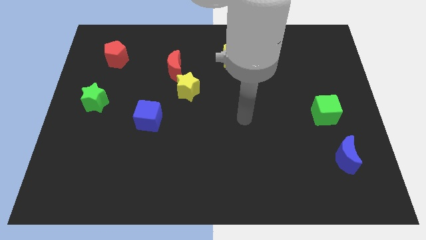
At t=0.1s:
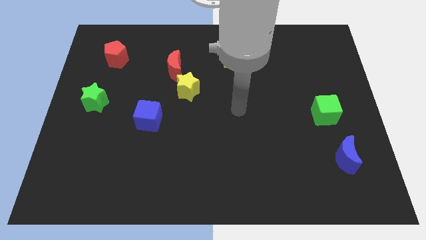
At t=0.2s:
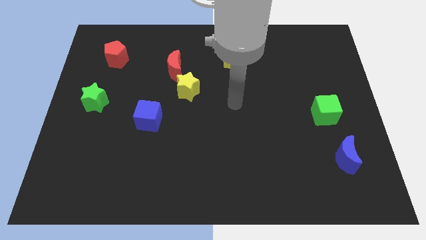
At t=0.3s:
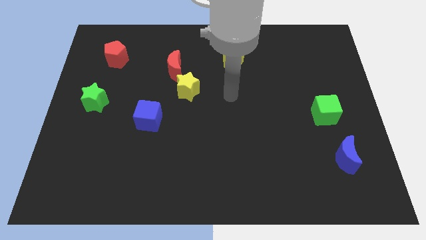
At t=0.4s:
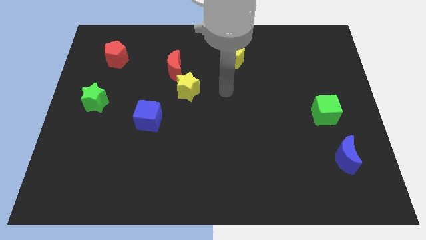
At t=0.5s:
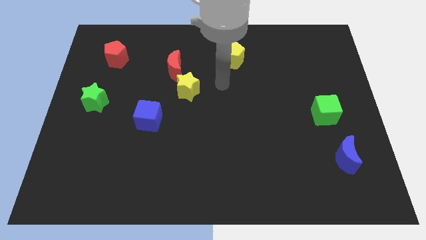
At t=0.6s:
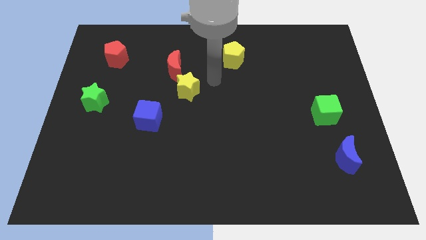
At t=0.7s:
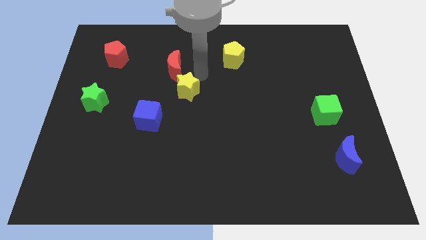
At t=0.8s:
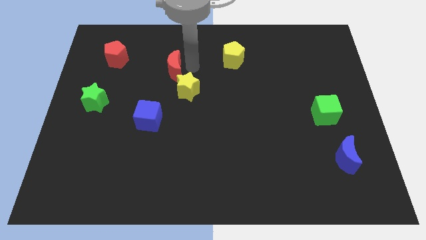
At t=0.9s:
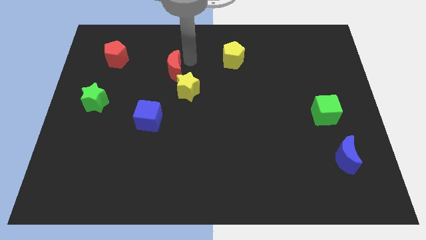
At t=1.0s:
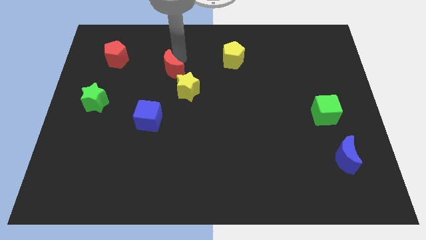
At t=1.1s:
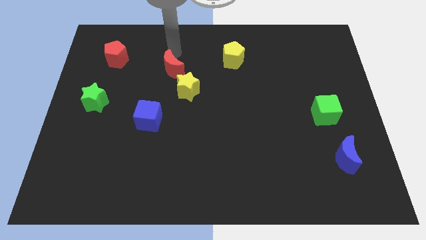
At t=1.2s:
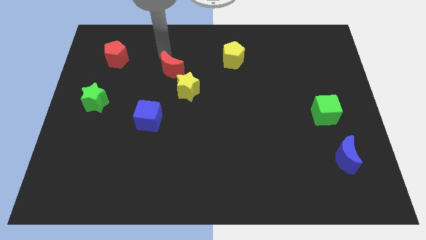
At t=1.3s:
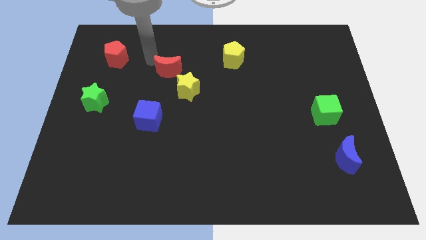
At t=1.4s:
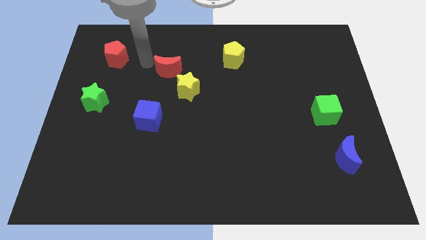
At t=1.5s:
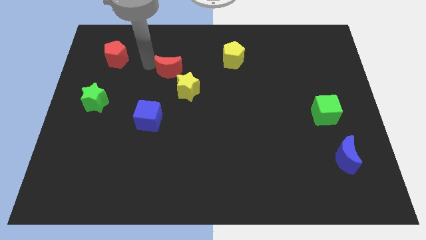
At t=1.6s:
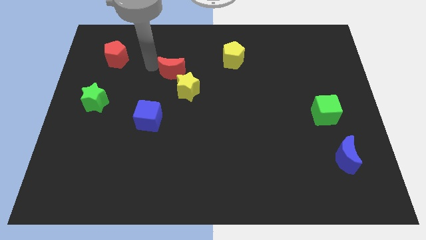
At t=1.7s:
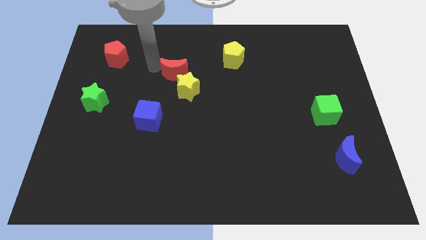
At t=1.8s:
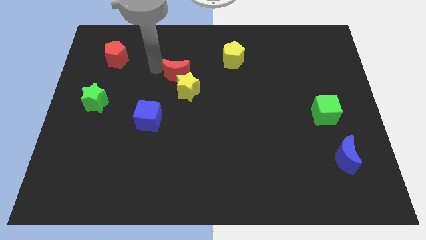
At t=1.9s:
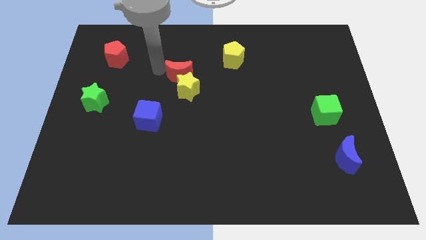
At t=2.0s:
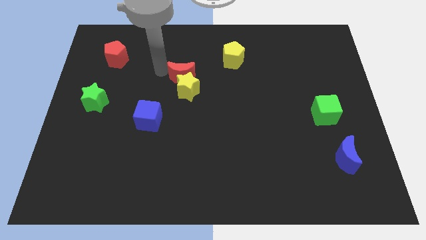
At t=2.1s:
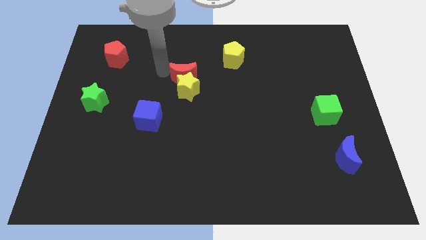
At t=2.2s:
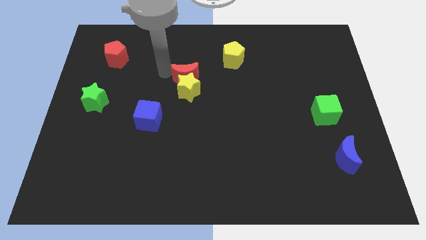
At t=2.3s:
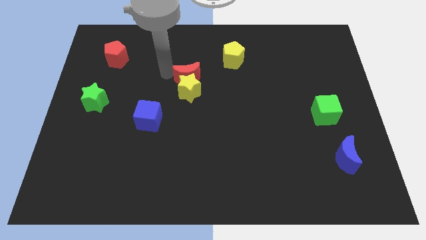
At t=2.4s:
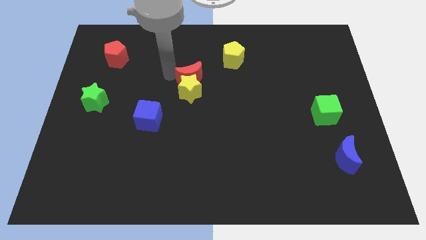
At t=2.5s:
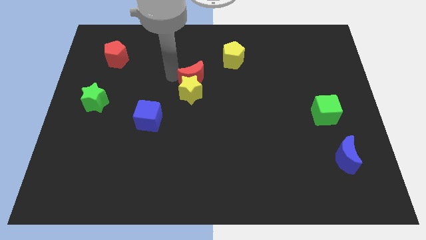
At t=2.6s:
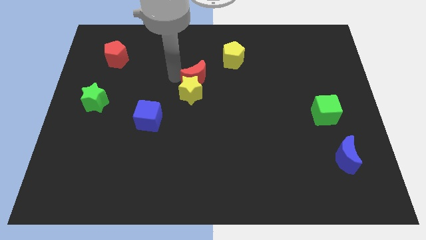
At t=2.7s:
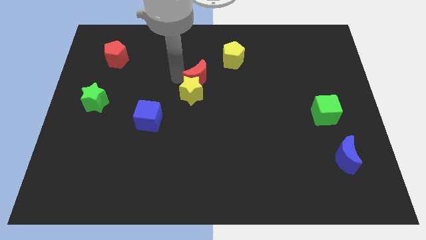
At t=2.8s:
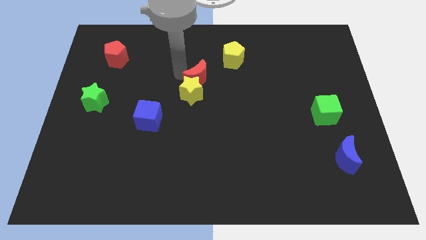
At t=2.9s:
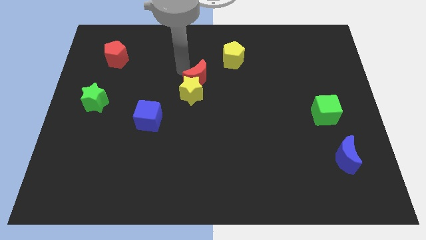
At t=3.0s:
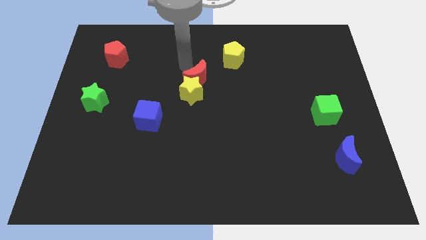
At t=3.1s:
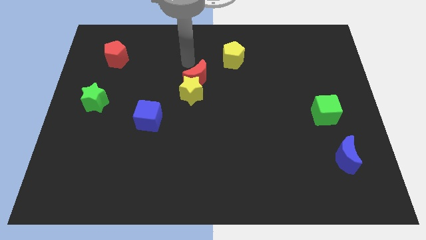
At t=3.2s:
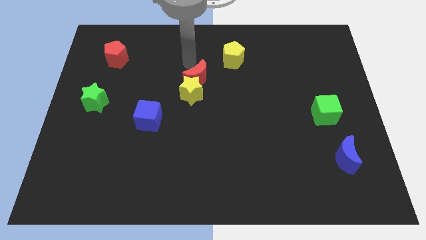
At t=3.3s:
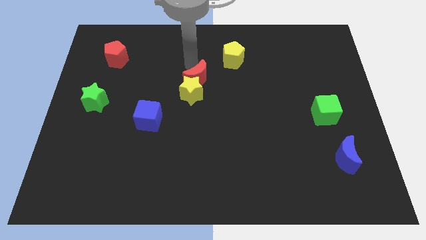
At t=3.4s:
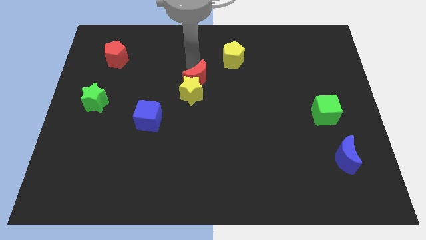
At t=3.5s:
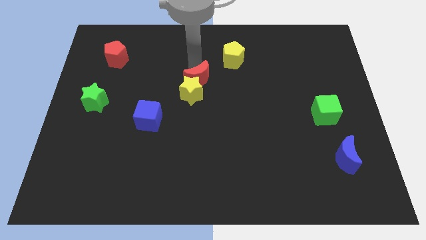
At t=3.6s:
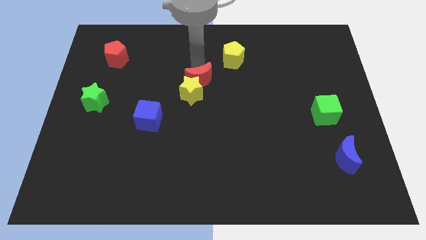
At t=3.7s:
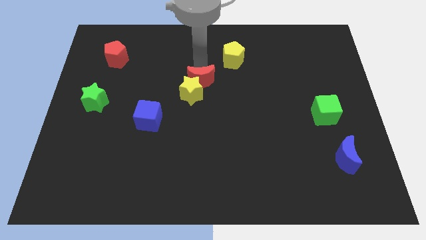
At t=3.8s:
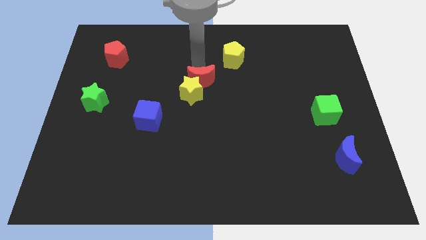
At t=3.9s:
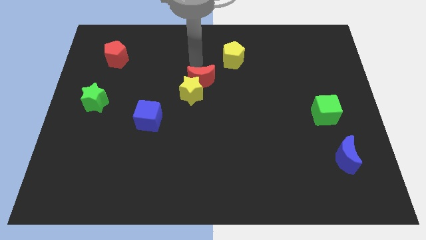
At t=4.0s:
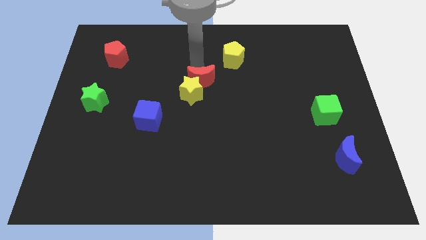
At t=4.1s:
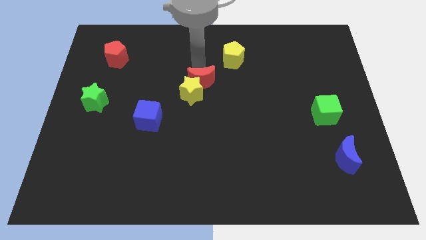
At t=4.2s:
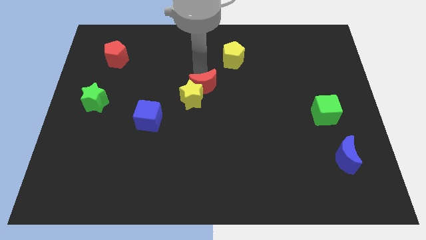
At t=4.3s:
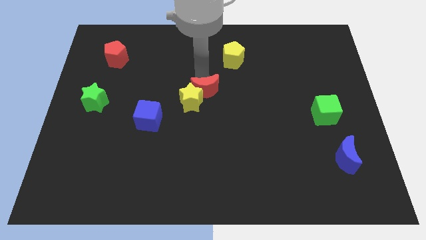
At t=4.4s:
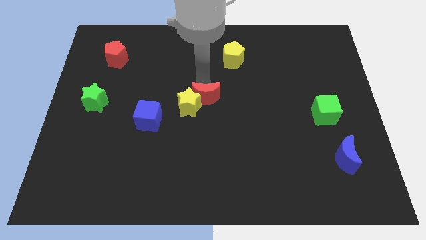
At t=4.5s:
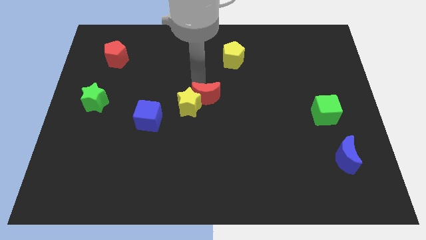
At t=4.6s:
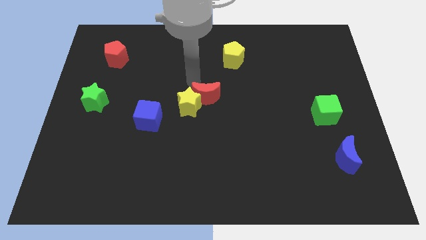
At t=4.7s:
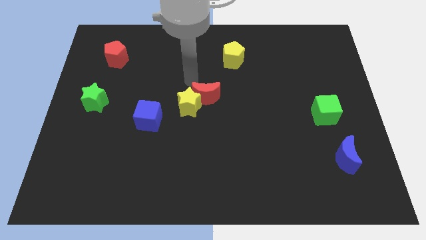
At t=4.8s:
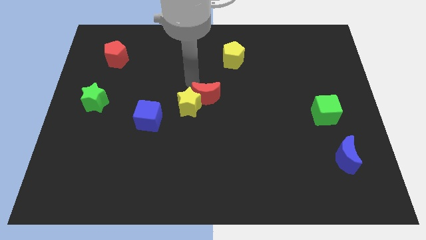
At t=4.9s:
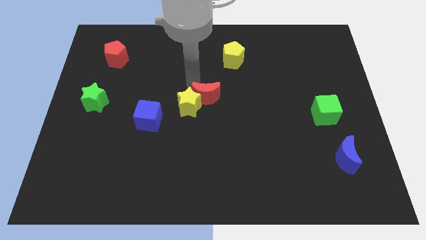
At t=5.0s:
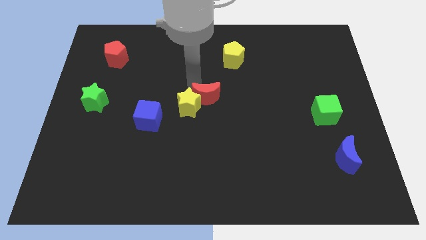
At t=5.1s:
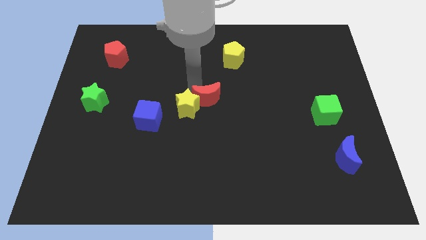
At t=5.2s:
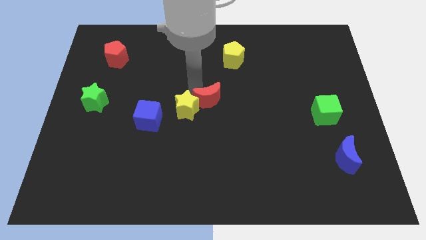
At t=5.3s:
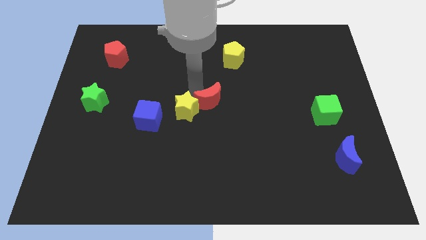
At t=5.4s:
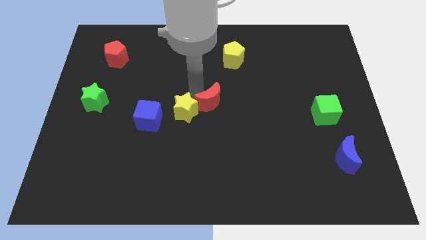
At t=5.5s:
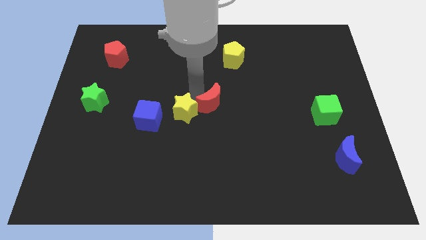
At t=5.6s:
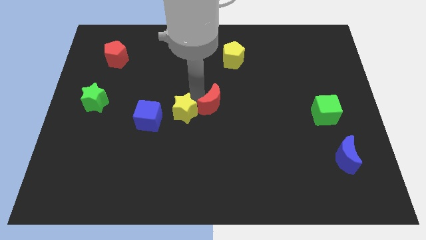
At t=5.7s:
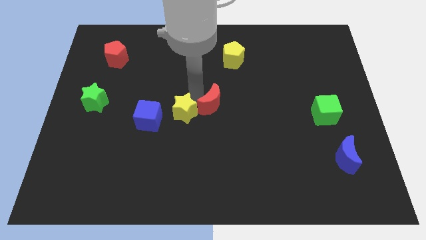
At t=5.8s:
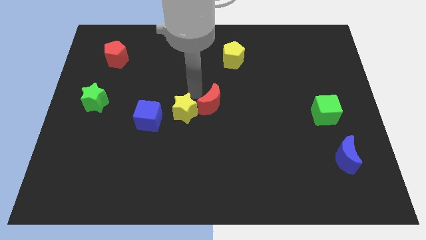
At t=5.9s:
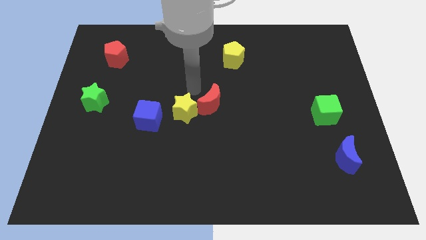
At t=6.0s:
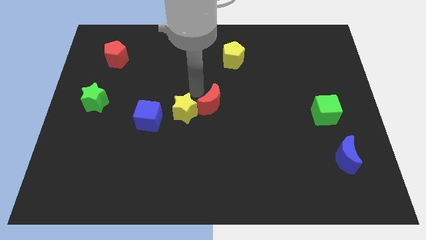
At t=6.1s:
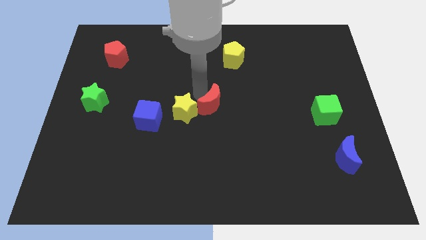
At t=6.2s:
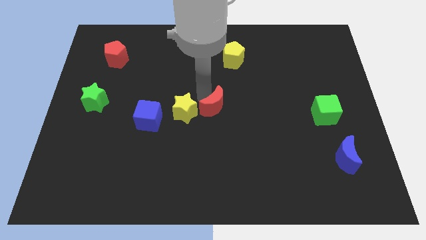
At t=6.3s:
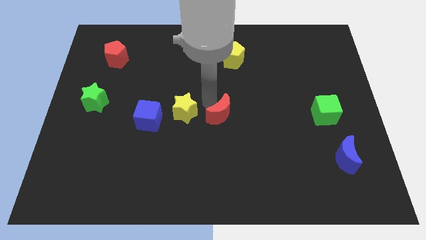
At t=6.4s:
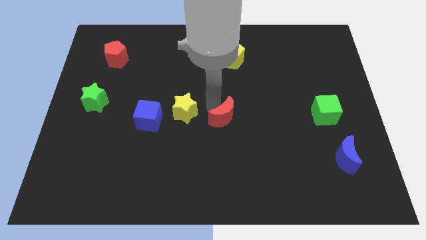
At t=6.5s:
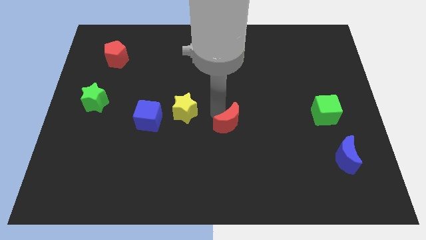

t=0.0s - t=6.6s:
push the red moon diagonally downwards and right

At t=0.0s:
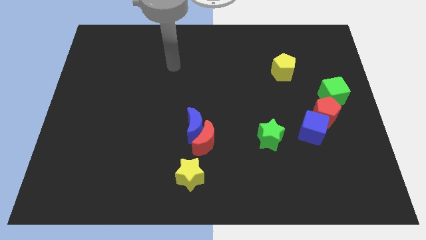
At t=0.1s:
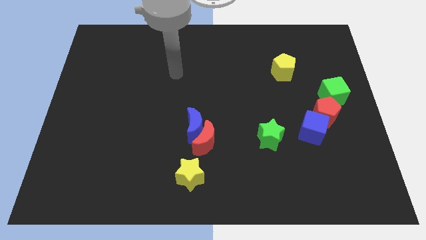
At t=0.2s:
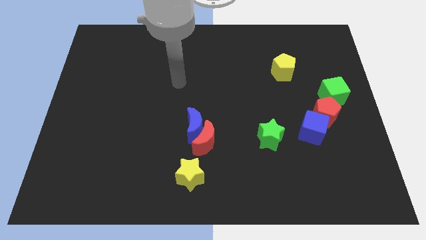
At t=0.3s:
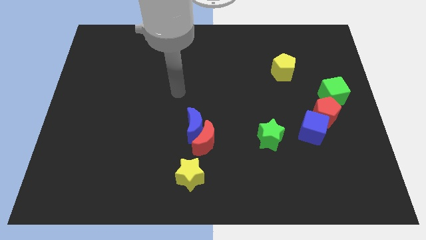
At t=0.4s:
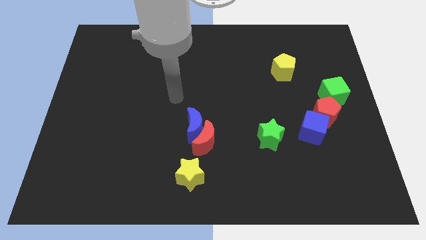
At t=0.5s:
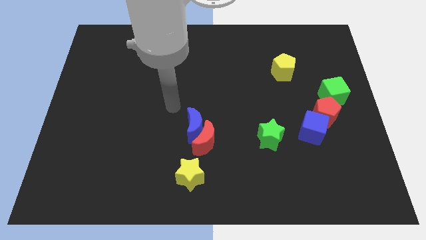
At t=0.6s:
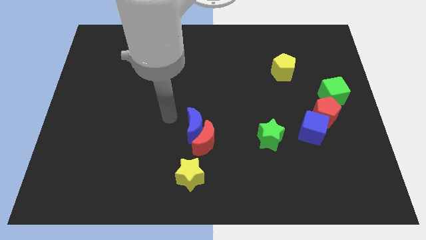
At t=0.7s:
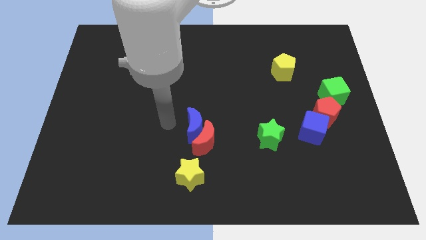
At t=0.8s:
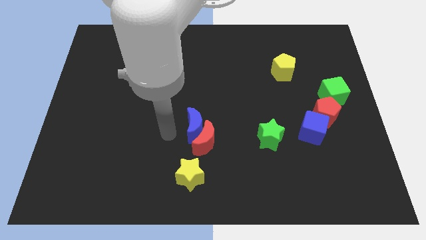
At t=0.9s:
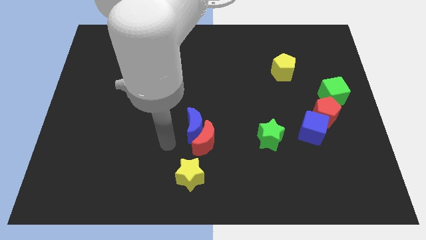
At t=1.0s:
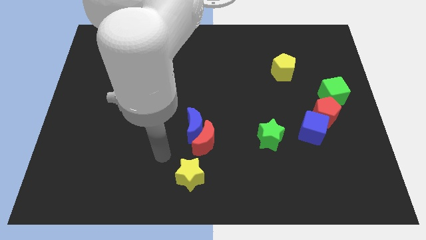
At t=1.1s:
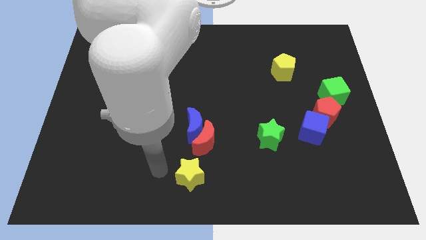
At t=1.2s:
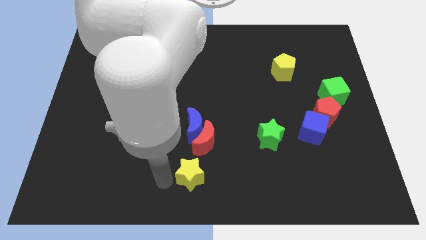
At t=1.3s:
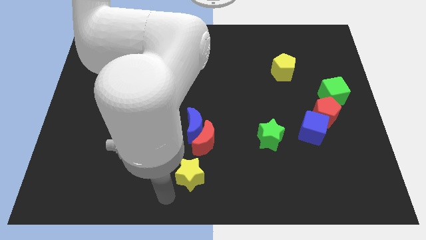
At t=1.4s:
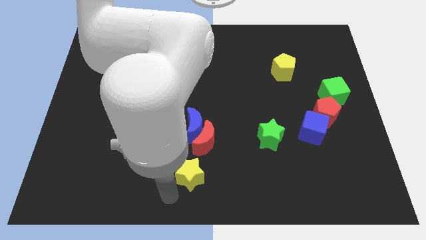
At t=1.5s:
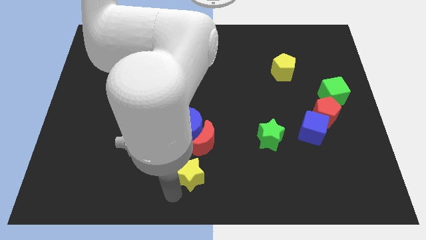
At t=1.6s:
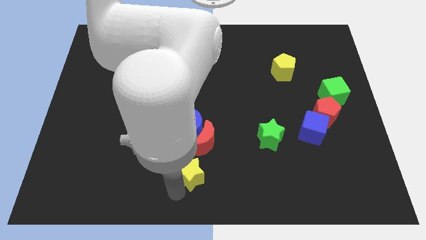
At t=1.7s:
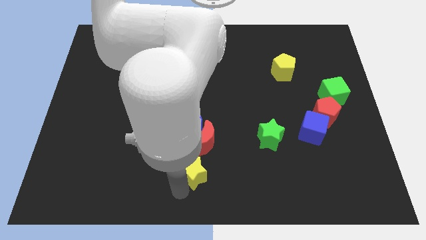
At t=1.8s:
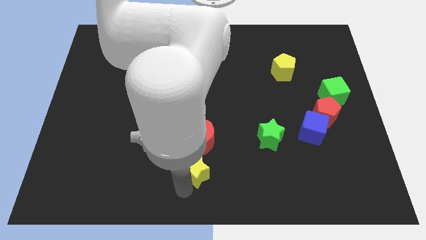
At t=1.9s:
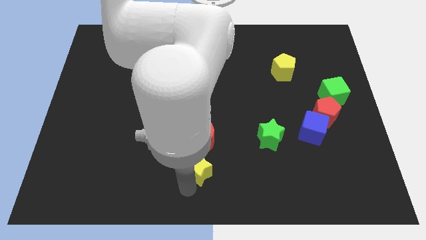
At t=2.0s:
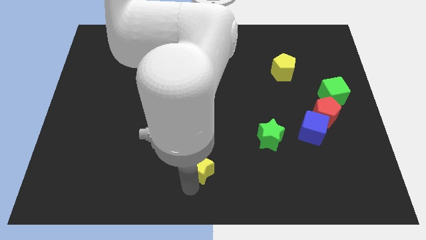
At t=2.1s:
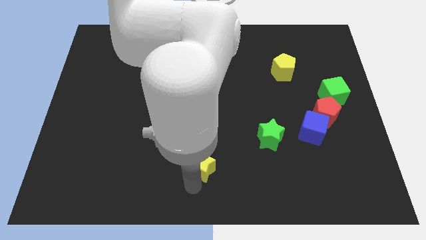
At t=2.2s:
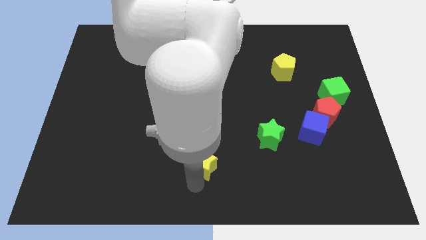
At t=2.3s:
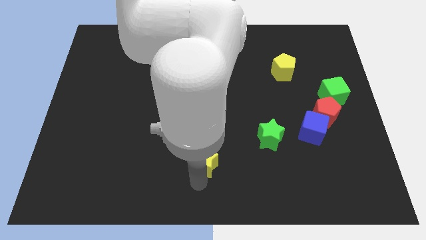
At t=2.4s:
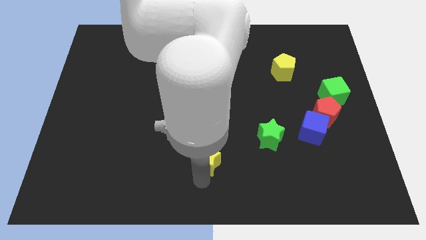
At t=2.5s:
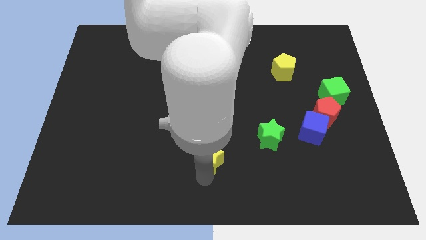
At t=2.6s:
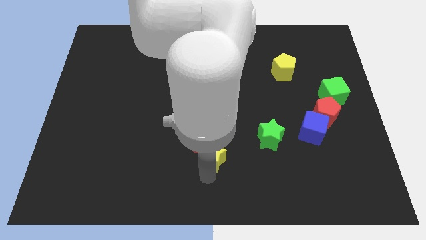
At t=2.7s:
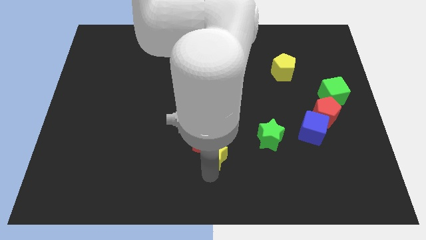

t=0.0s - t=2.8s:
move the yellow star diagonally upwards and to the right somewhat
